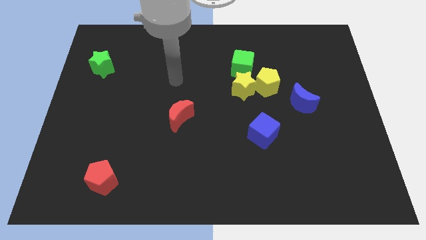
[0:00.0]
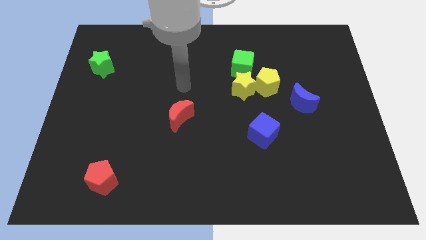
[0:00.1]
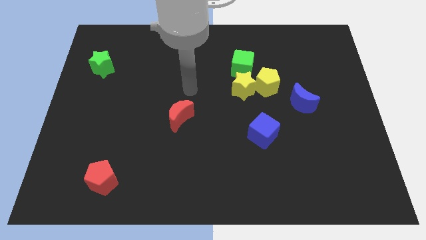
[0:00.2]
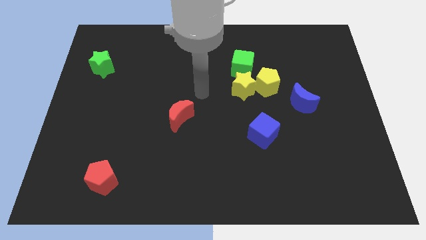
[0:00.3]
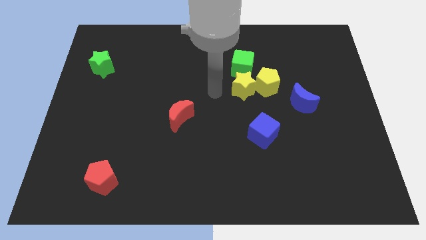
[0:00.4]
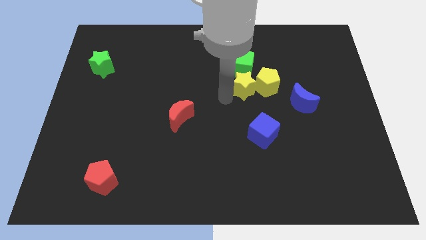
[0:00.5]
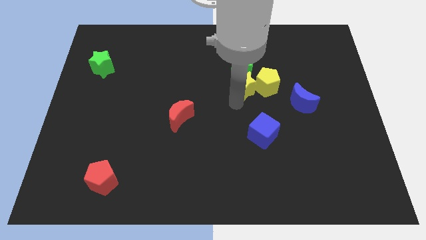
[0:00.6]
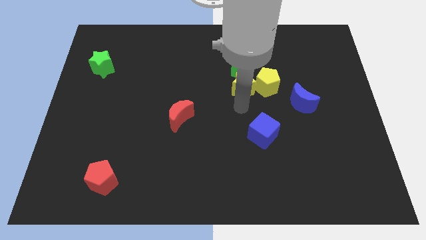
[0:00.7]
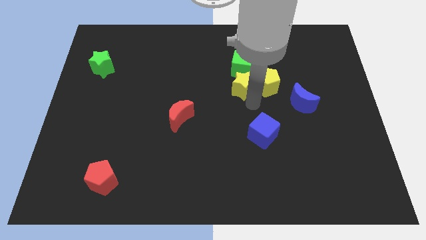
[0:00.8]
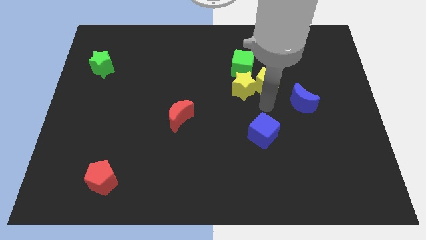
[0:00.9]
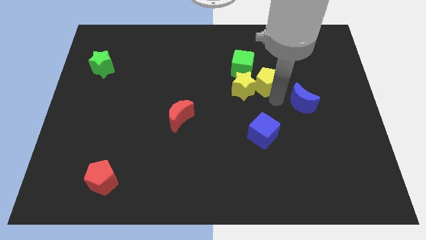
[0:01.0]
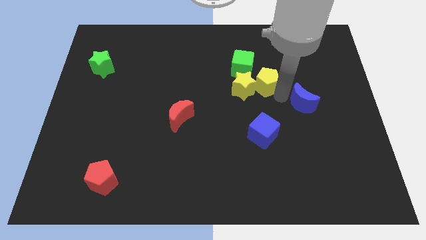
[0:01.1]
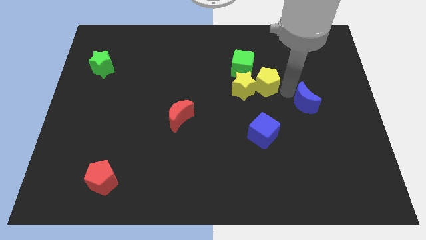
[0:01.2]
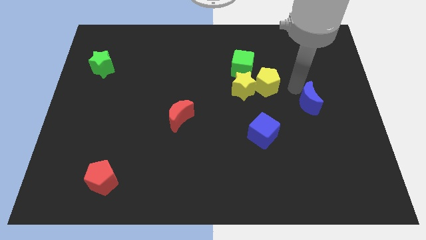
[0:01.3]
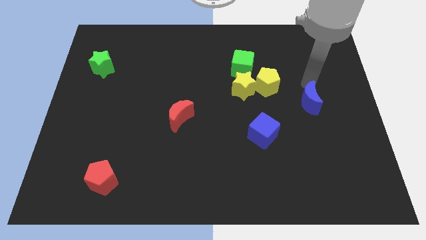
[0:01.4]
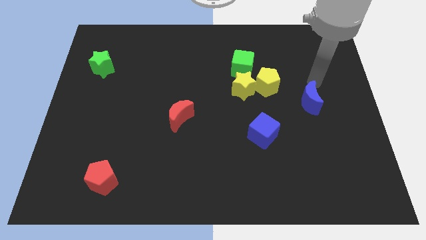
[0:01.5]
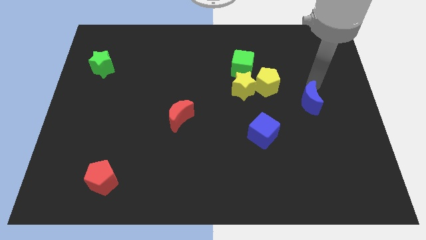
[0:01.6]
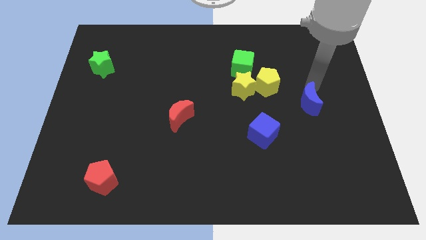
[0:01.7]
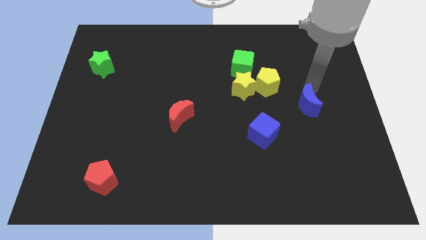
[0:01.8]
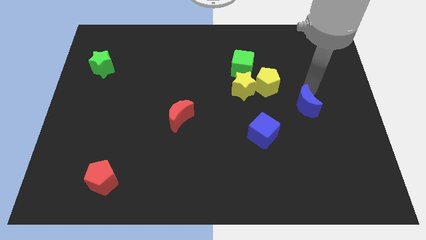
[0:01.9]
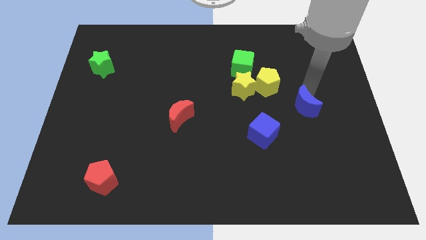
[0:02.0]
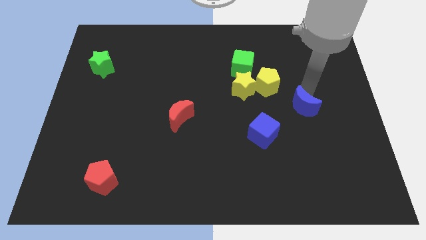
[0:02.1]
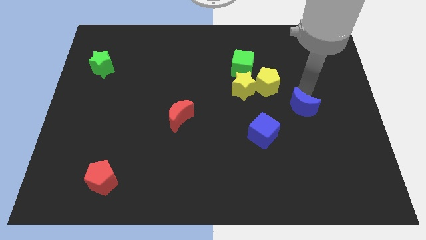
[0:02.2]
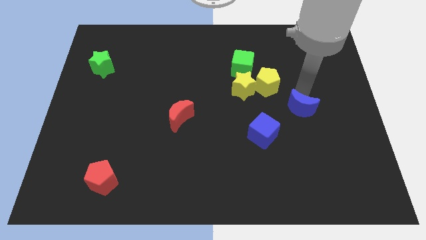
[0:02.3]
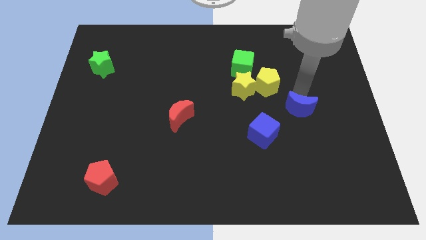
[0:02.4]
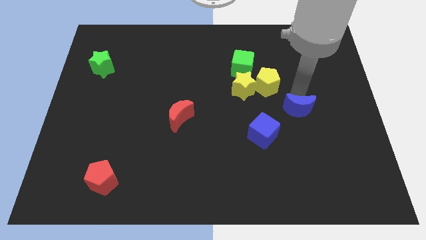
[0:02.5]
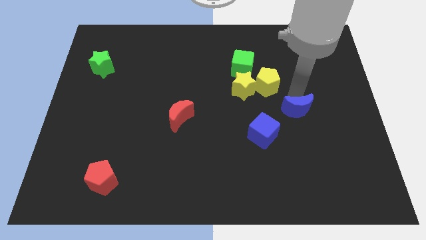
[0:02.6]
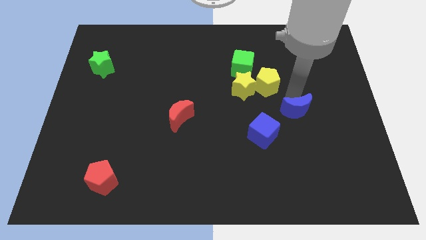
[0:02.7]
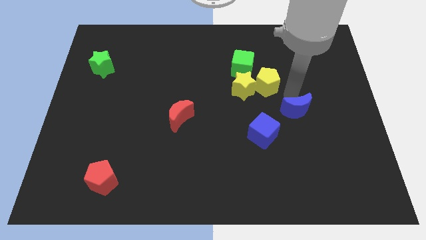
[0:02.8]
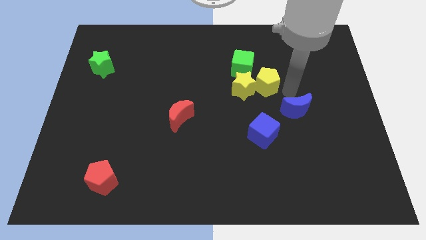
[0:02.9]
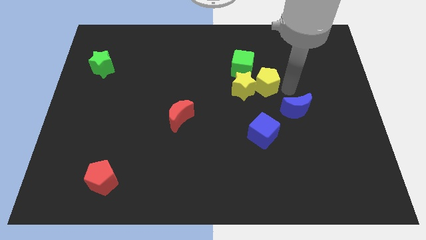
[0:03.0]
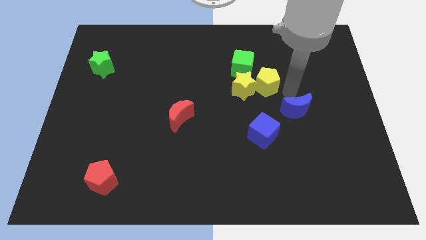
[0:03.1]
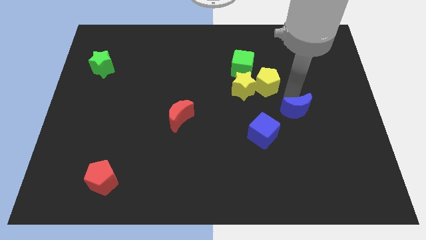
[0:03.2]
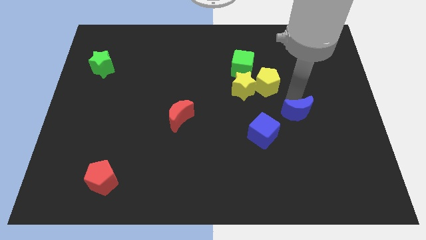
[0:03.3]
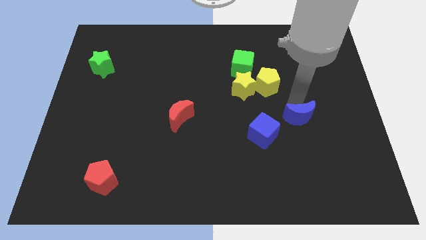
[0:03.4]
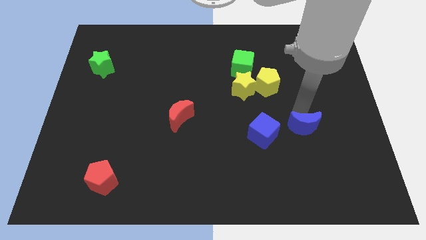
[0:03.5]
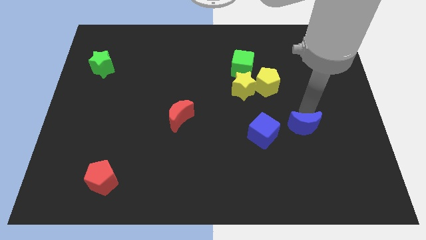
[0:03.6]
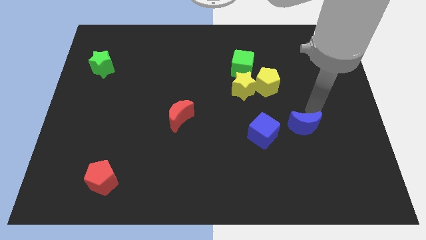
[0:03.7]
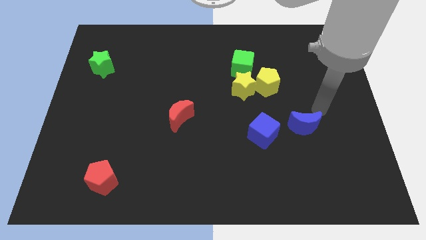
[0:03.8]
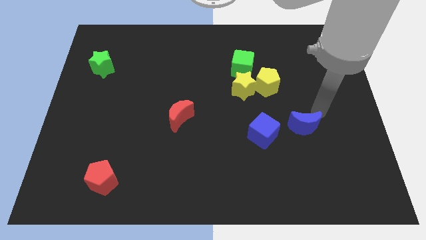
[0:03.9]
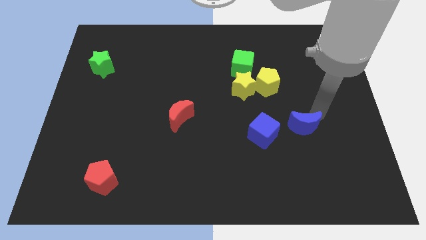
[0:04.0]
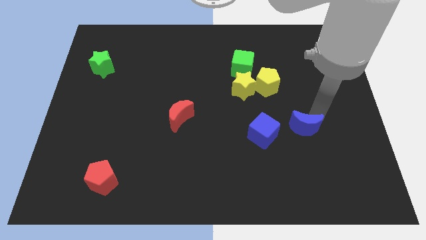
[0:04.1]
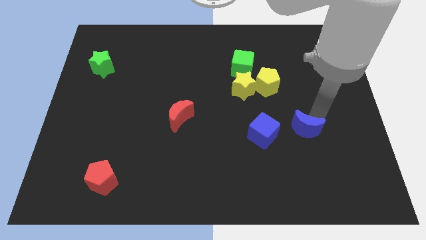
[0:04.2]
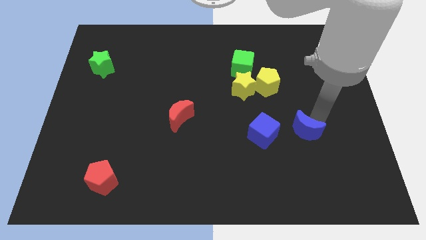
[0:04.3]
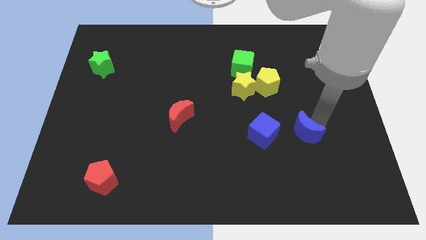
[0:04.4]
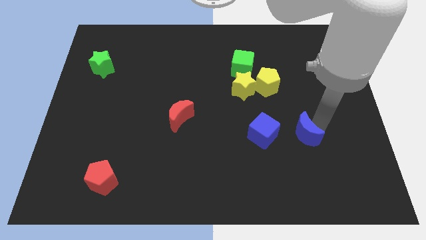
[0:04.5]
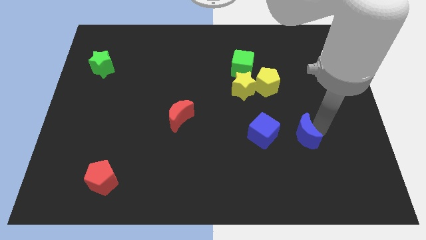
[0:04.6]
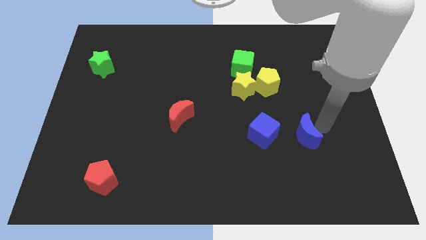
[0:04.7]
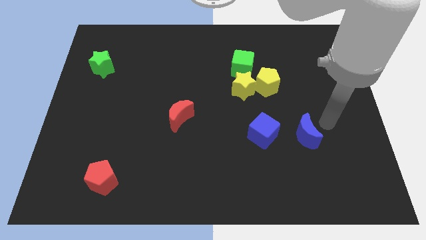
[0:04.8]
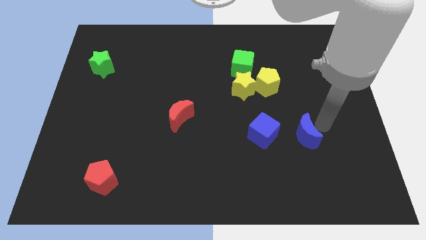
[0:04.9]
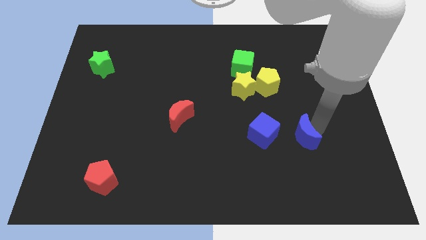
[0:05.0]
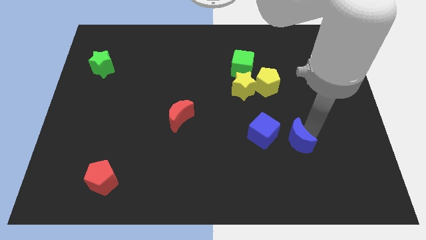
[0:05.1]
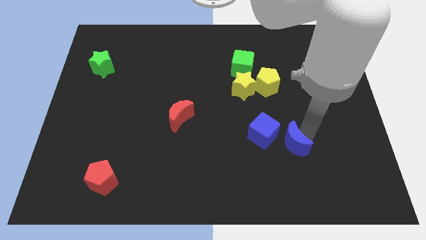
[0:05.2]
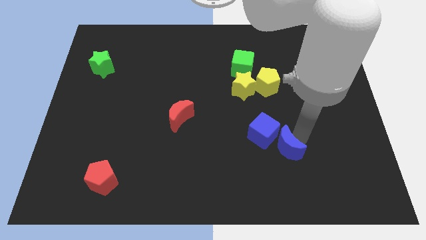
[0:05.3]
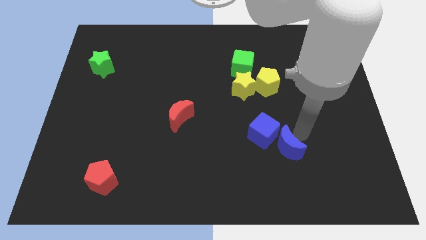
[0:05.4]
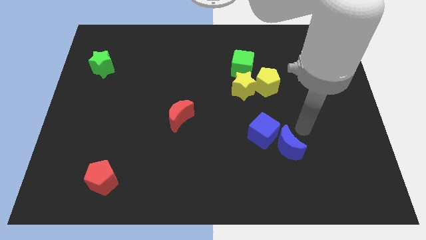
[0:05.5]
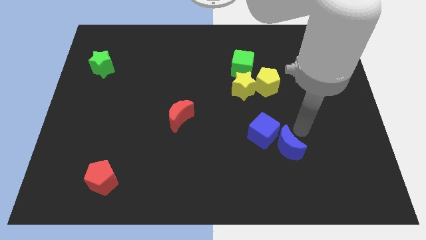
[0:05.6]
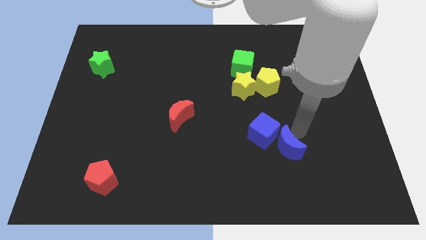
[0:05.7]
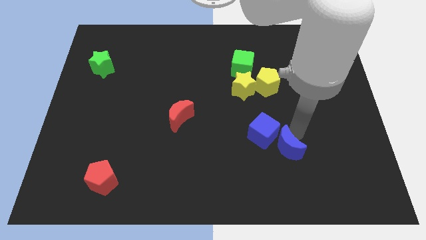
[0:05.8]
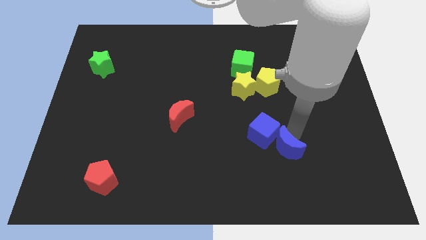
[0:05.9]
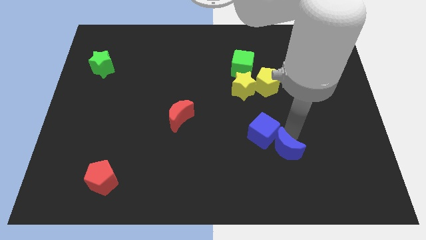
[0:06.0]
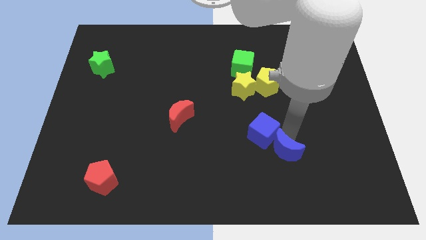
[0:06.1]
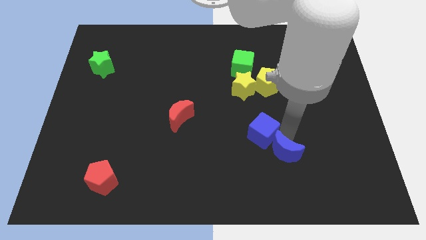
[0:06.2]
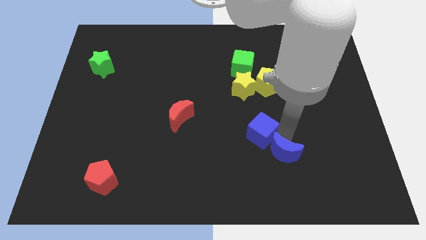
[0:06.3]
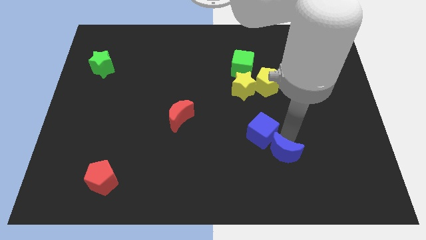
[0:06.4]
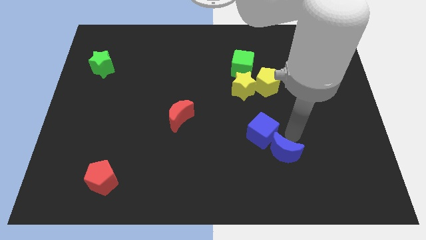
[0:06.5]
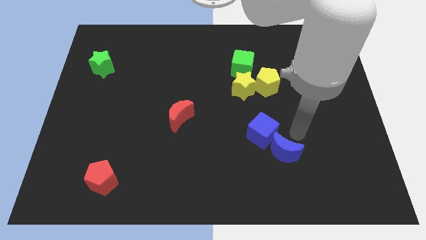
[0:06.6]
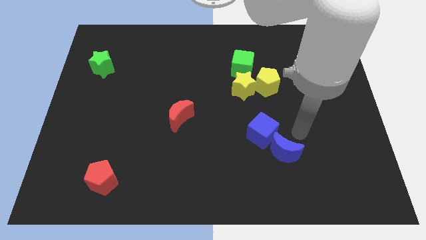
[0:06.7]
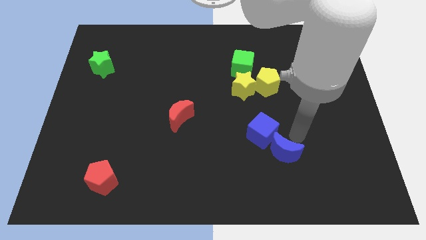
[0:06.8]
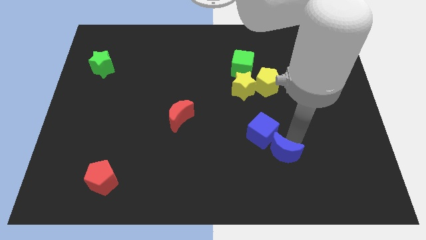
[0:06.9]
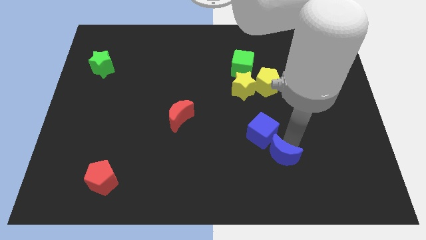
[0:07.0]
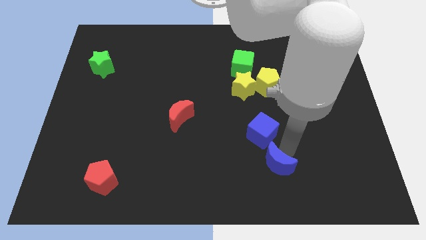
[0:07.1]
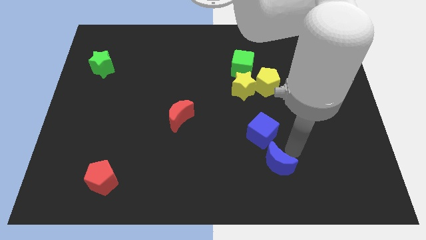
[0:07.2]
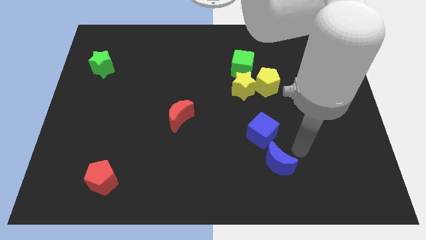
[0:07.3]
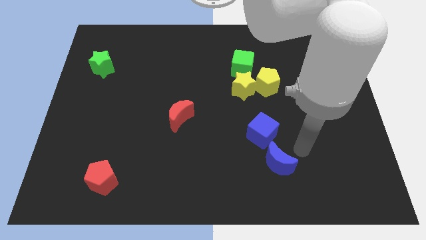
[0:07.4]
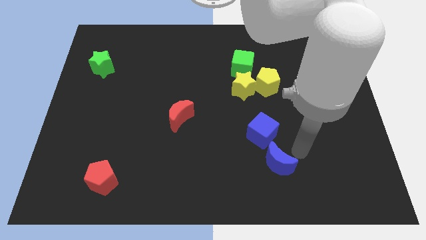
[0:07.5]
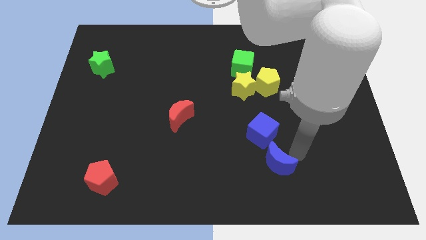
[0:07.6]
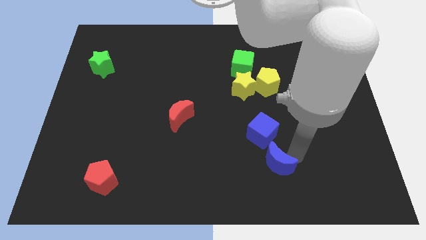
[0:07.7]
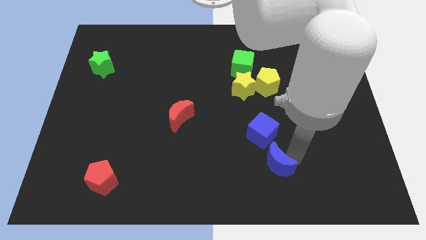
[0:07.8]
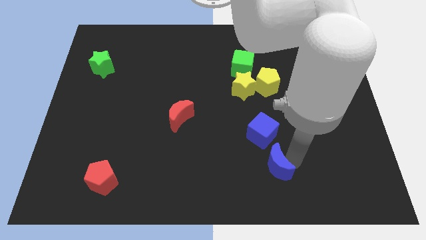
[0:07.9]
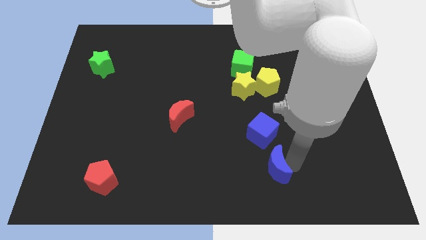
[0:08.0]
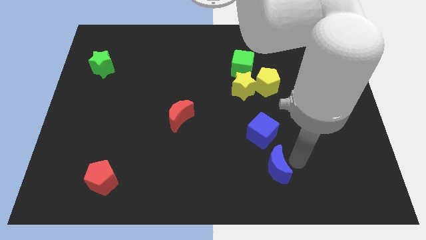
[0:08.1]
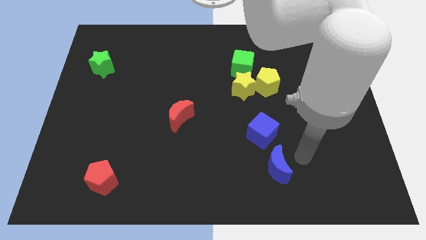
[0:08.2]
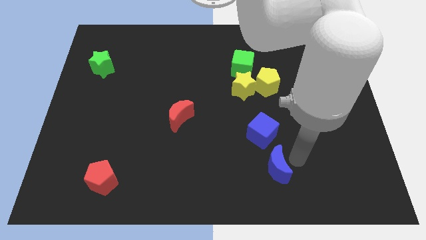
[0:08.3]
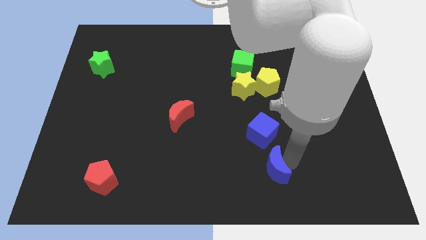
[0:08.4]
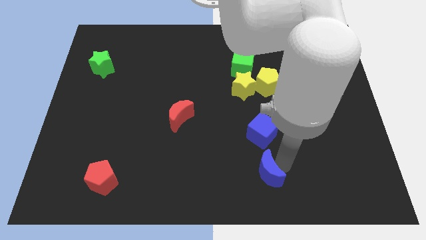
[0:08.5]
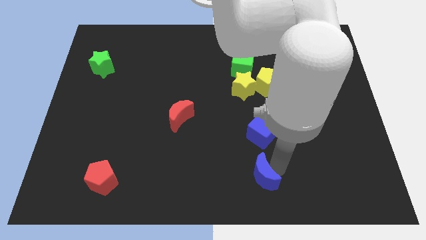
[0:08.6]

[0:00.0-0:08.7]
push the blue moon to the bottom
